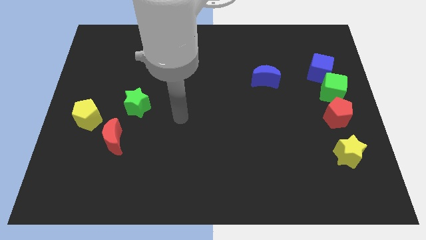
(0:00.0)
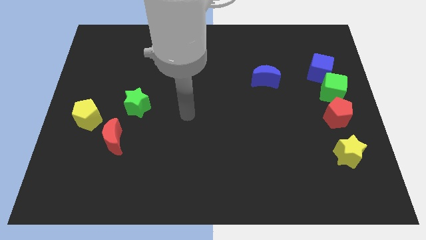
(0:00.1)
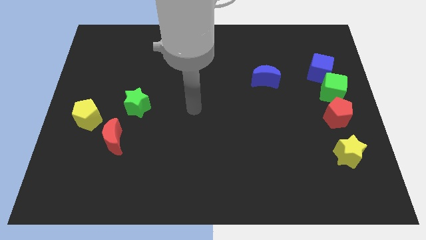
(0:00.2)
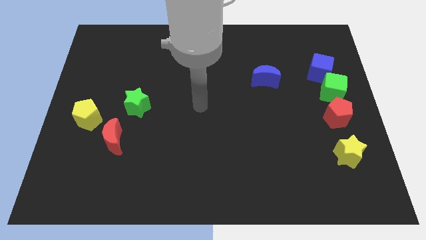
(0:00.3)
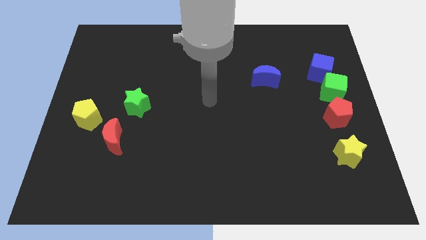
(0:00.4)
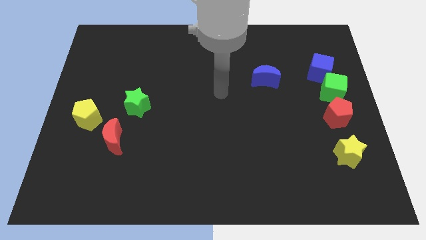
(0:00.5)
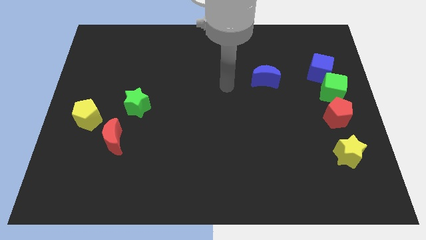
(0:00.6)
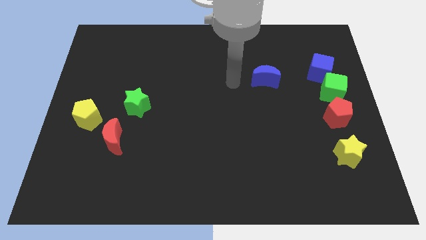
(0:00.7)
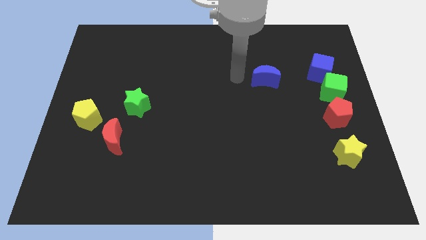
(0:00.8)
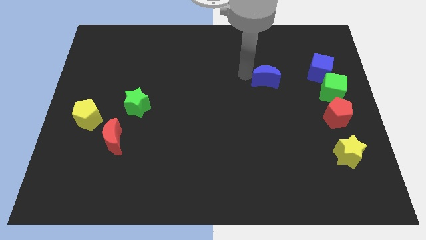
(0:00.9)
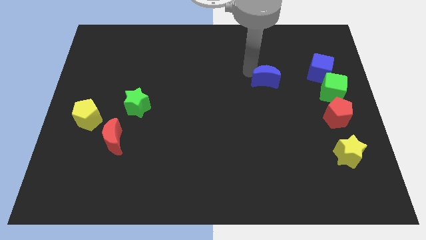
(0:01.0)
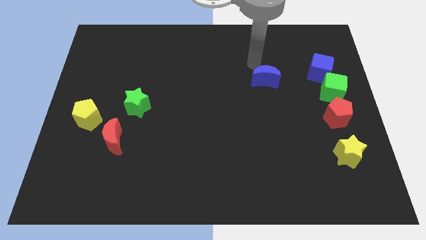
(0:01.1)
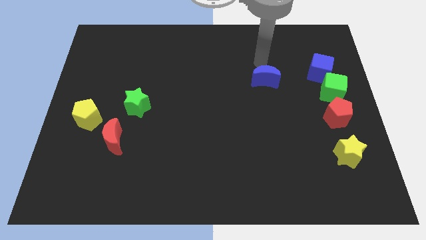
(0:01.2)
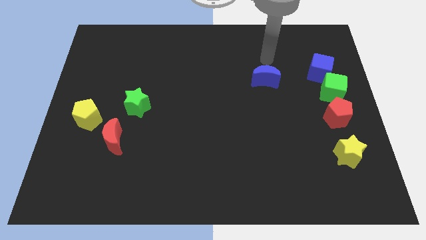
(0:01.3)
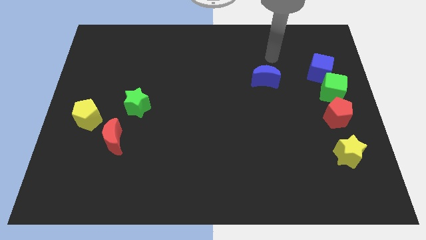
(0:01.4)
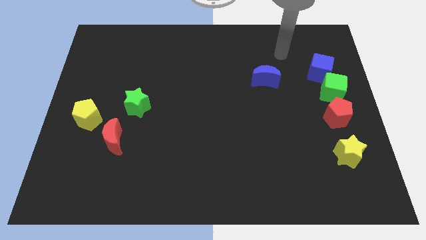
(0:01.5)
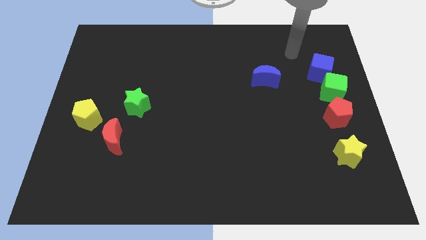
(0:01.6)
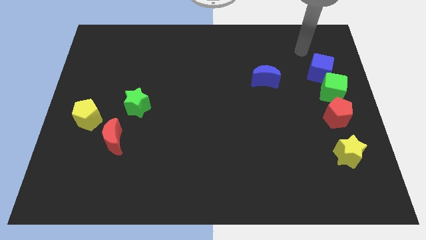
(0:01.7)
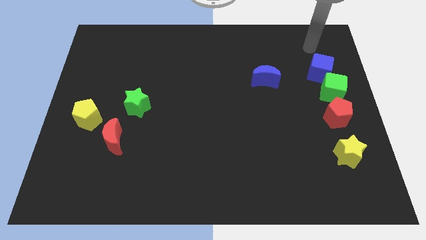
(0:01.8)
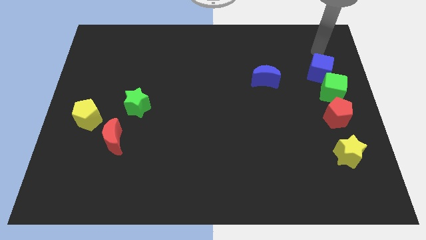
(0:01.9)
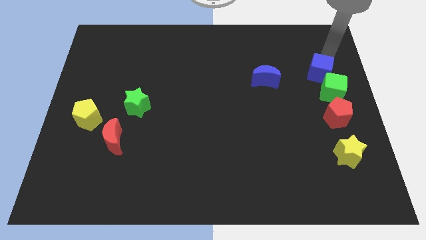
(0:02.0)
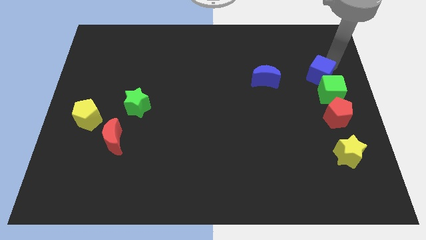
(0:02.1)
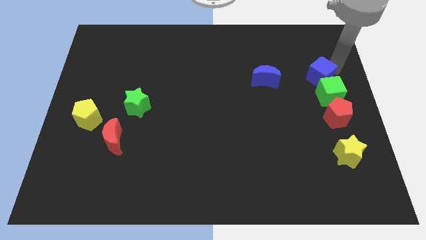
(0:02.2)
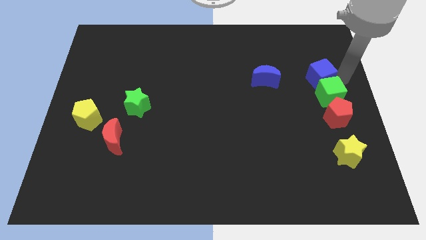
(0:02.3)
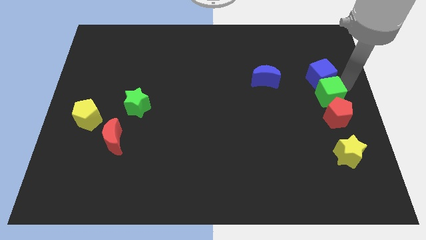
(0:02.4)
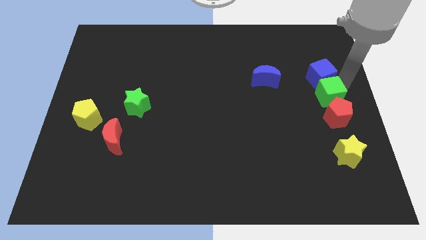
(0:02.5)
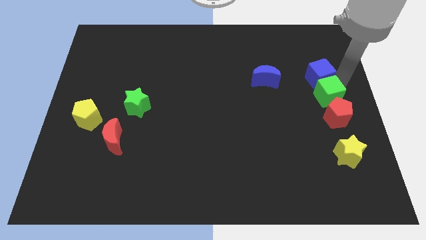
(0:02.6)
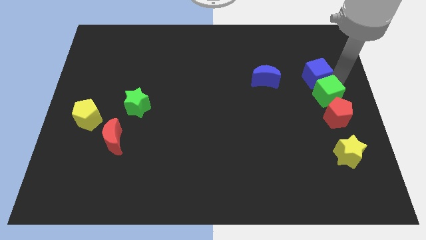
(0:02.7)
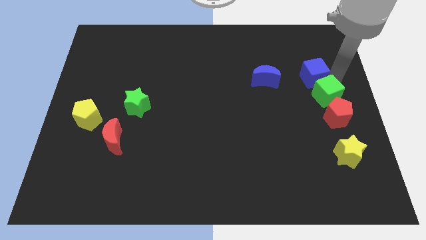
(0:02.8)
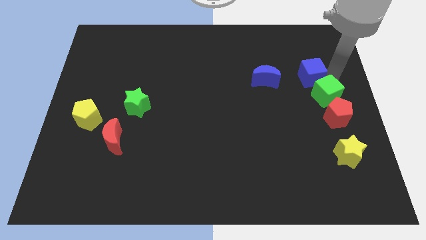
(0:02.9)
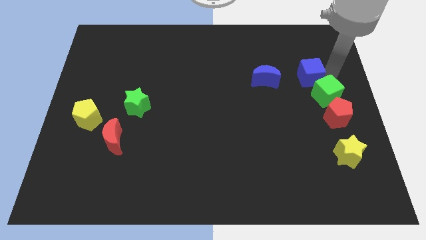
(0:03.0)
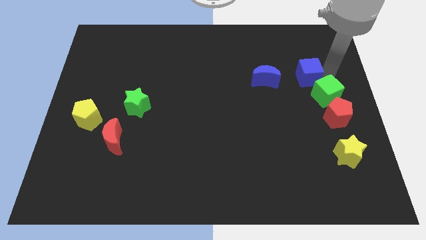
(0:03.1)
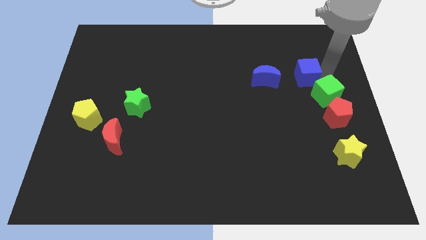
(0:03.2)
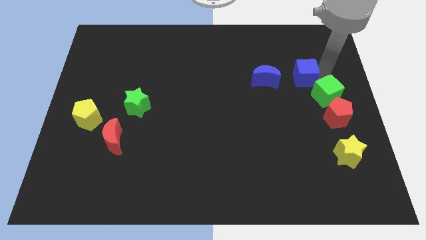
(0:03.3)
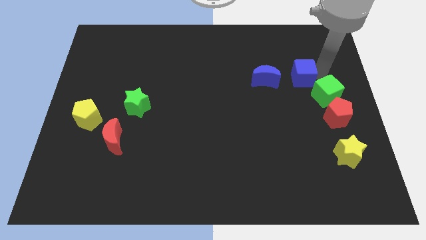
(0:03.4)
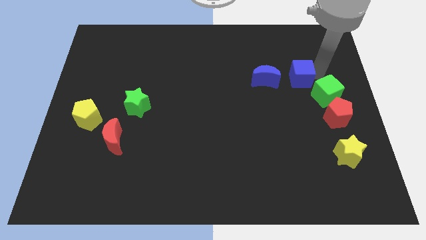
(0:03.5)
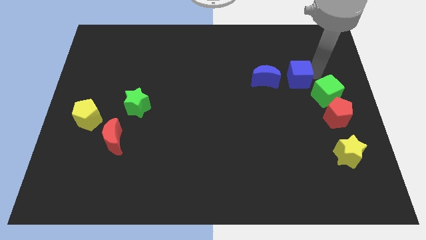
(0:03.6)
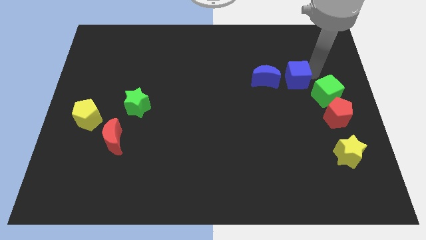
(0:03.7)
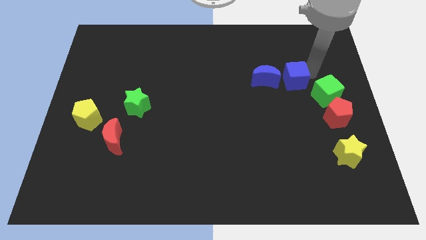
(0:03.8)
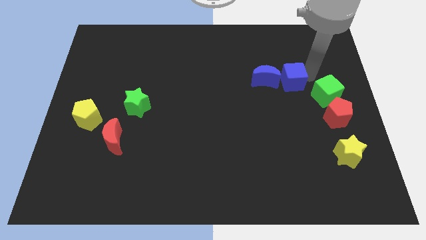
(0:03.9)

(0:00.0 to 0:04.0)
push the blue cube a little bit to the left

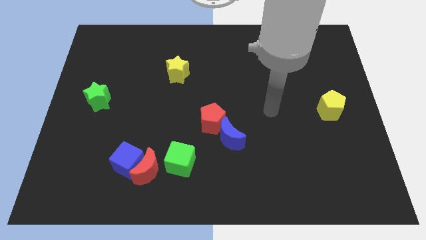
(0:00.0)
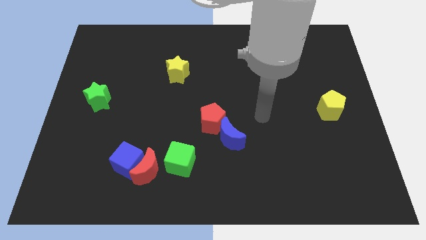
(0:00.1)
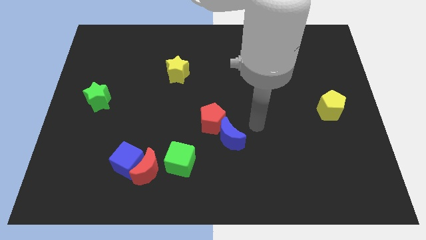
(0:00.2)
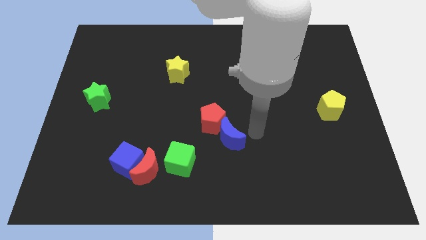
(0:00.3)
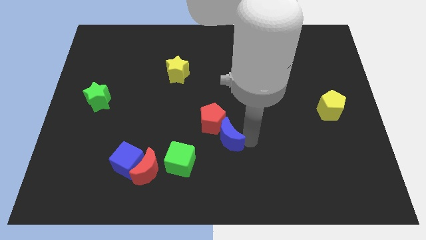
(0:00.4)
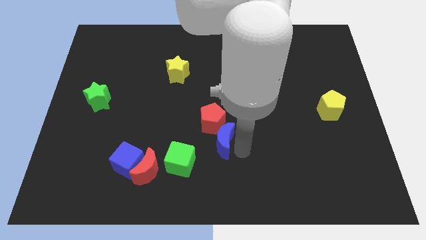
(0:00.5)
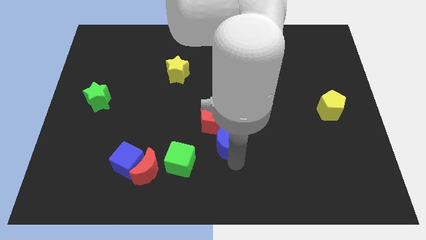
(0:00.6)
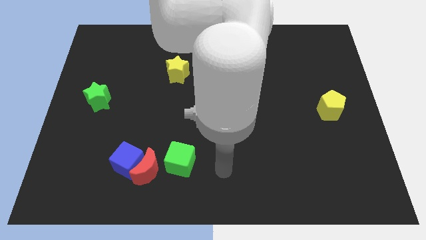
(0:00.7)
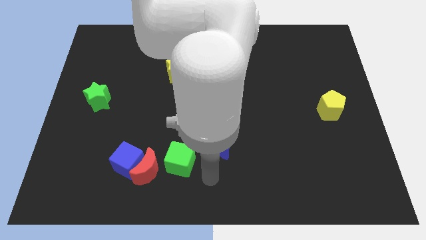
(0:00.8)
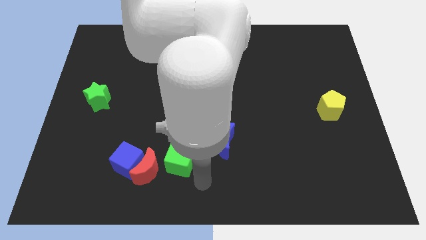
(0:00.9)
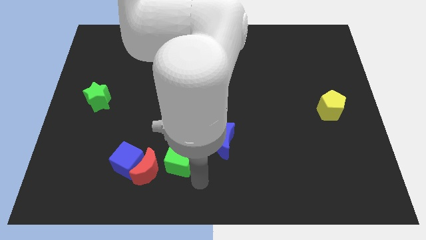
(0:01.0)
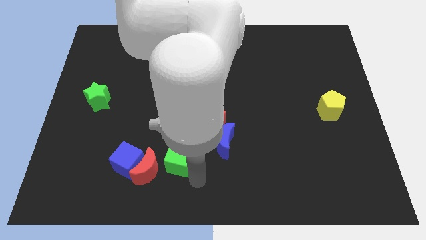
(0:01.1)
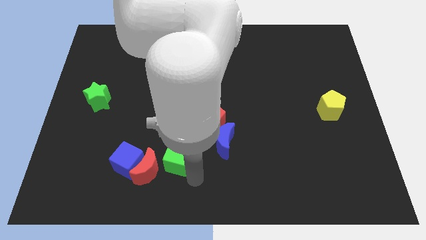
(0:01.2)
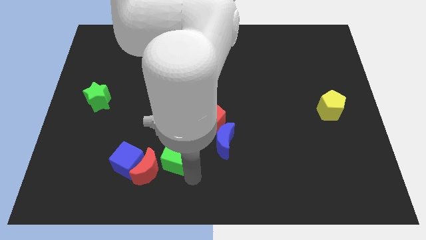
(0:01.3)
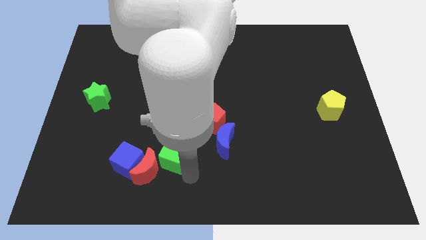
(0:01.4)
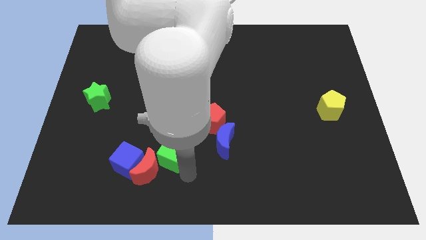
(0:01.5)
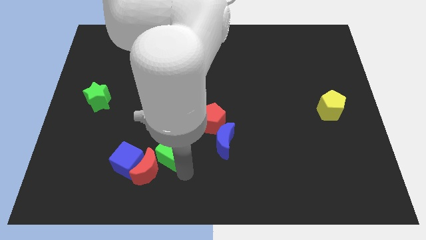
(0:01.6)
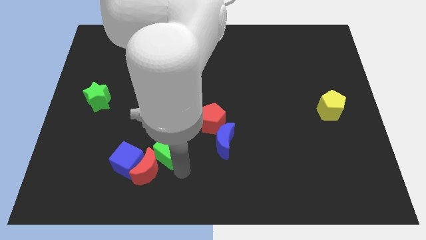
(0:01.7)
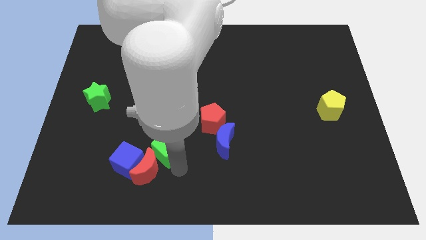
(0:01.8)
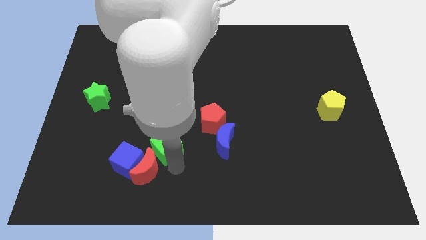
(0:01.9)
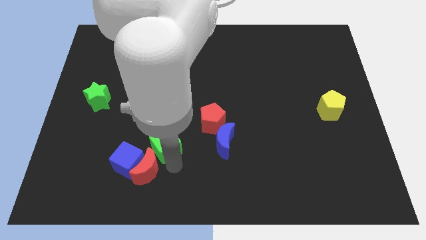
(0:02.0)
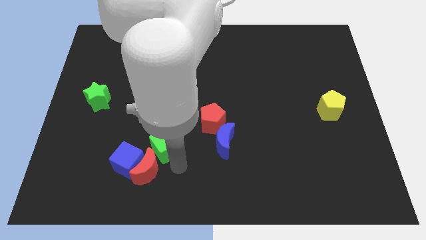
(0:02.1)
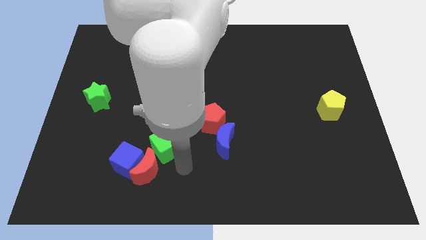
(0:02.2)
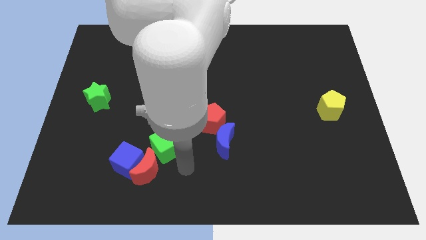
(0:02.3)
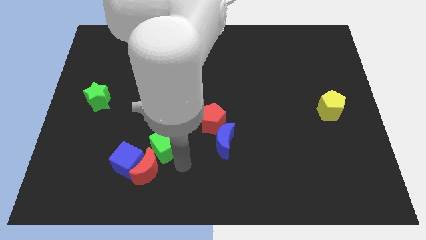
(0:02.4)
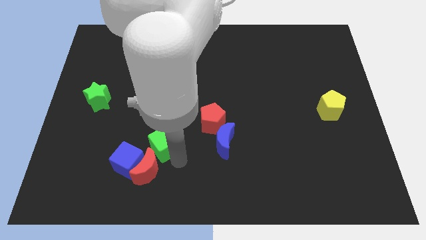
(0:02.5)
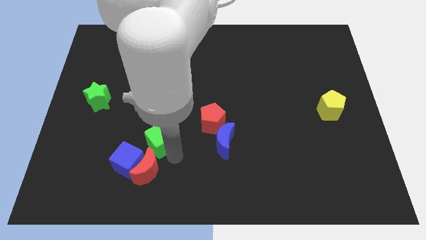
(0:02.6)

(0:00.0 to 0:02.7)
slightly move the green cube diagonally up and to the left

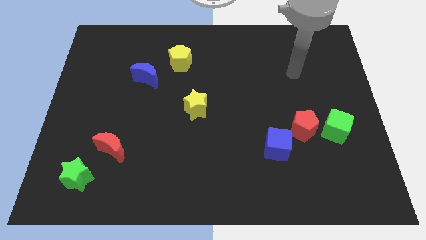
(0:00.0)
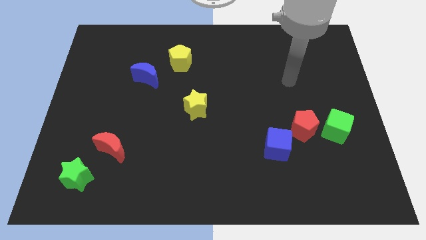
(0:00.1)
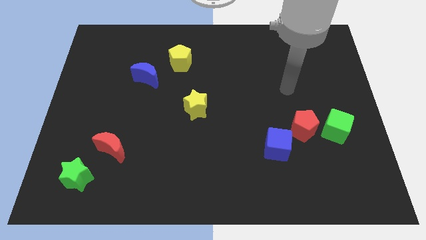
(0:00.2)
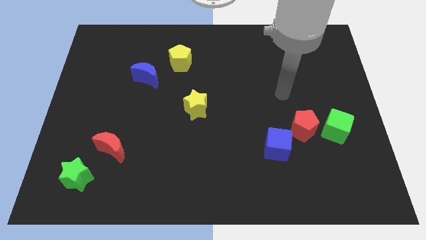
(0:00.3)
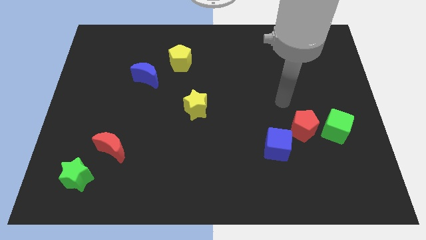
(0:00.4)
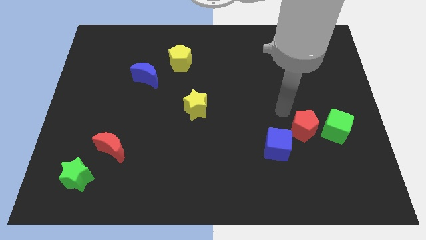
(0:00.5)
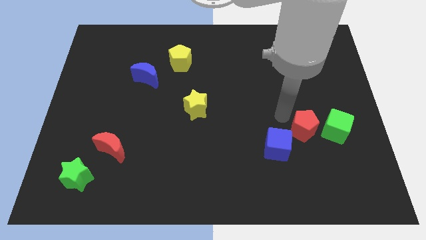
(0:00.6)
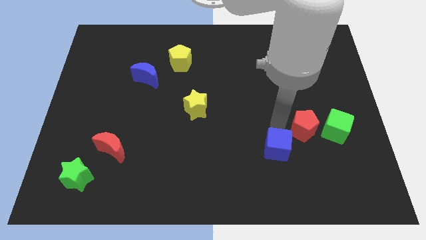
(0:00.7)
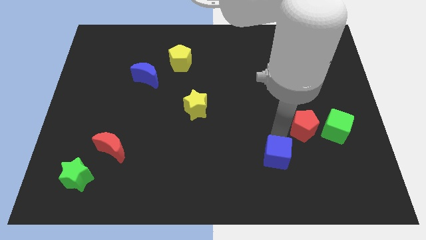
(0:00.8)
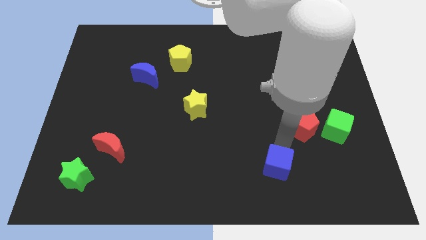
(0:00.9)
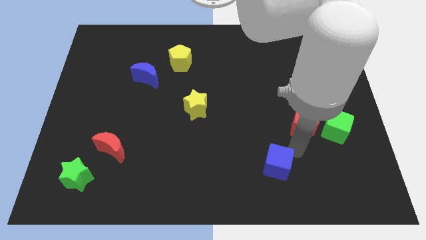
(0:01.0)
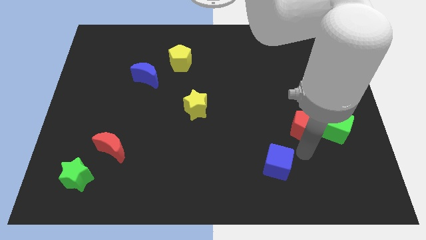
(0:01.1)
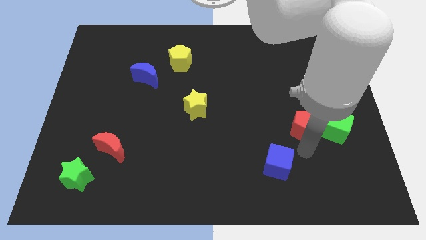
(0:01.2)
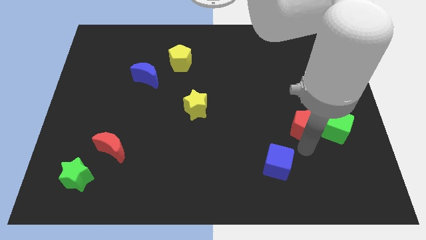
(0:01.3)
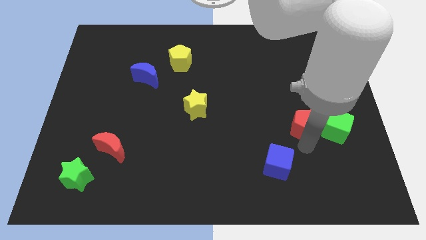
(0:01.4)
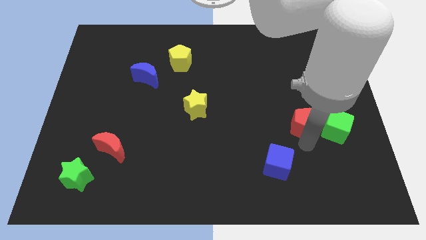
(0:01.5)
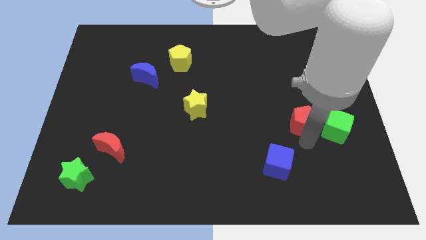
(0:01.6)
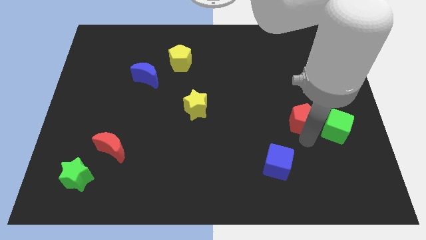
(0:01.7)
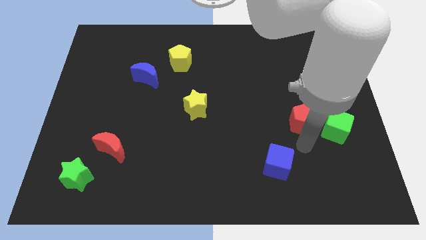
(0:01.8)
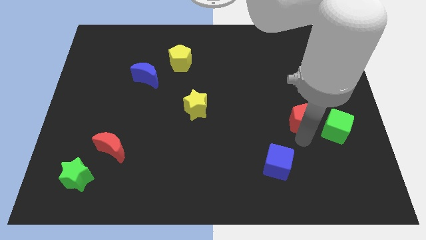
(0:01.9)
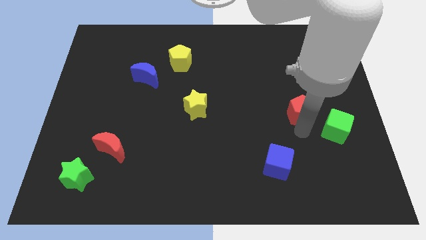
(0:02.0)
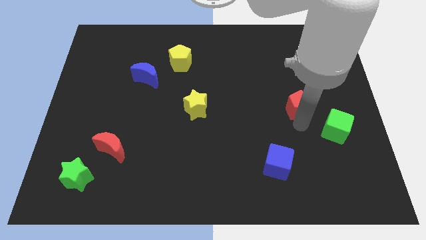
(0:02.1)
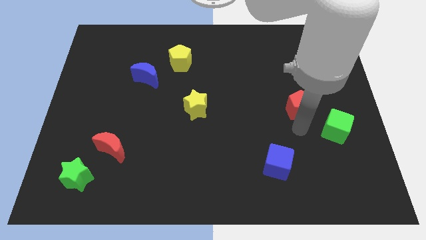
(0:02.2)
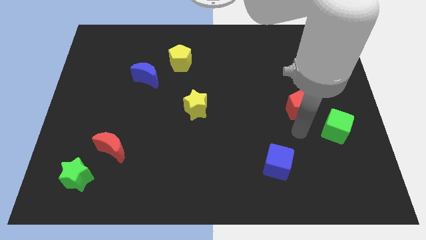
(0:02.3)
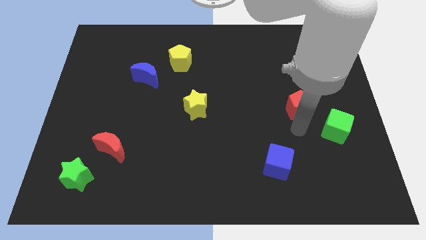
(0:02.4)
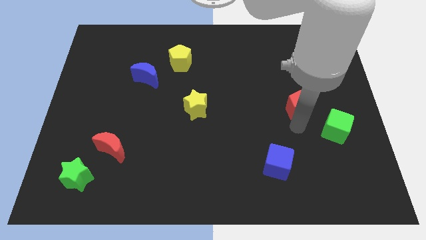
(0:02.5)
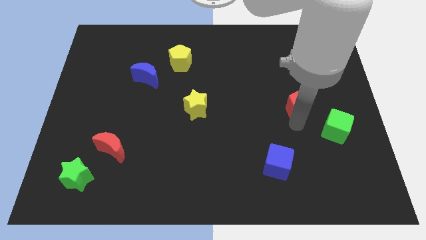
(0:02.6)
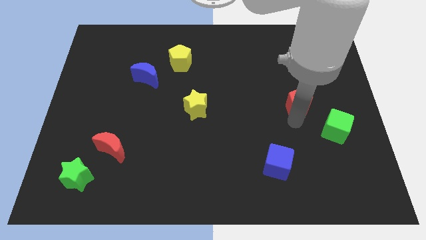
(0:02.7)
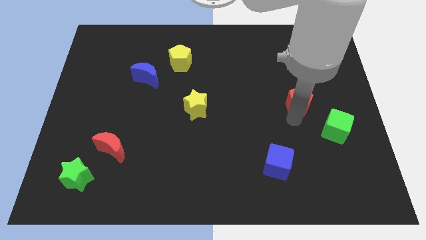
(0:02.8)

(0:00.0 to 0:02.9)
slightly push the red pentagon upwards
